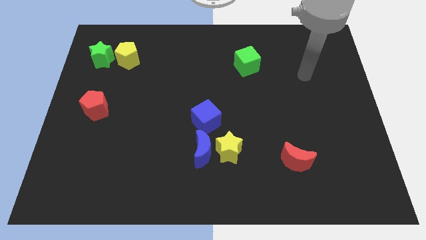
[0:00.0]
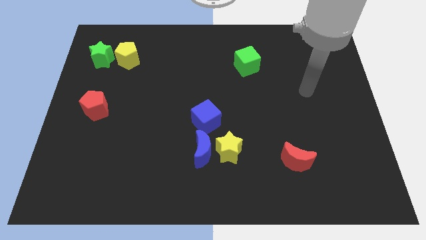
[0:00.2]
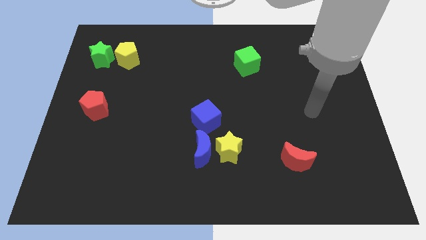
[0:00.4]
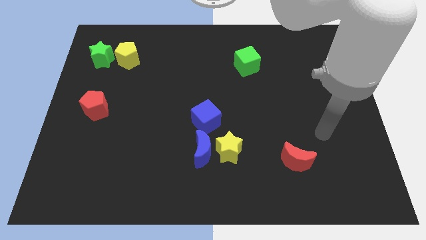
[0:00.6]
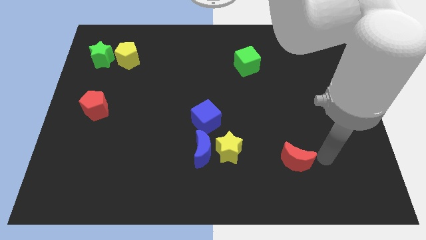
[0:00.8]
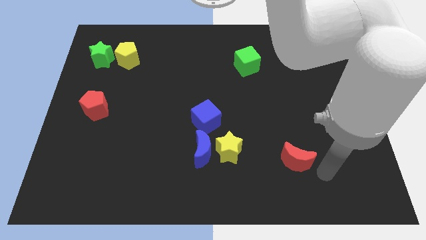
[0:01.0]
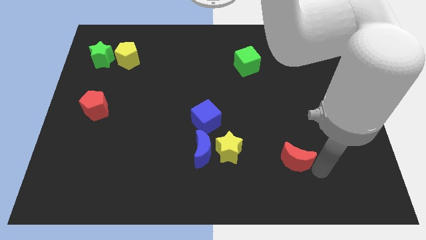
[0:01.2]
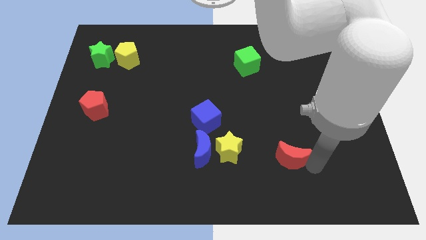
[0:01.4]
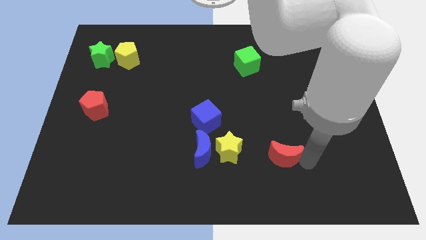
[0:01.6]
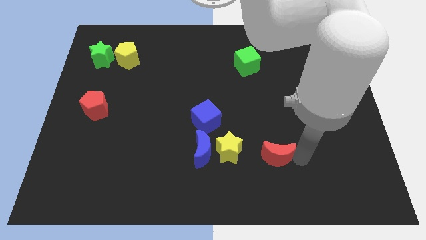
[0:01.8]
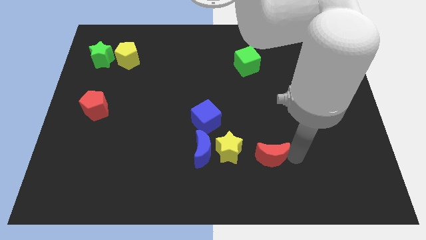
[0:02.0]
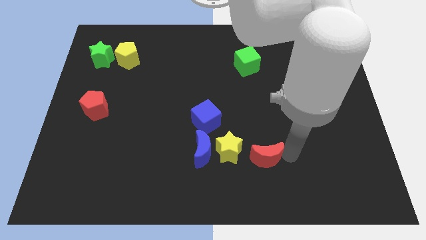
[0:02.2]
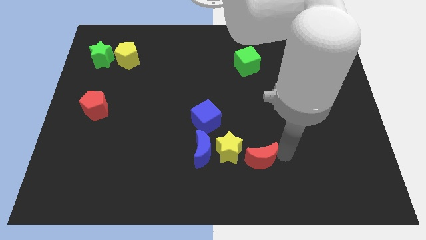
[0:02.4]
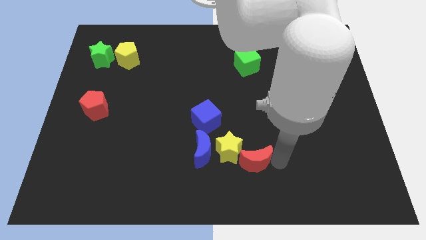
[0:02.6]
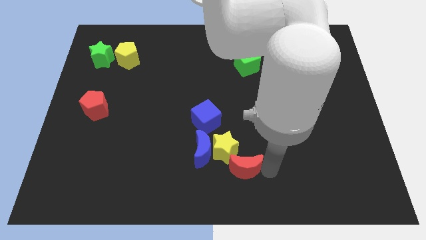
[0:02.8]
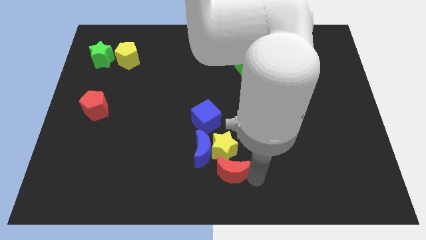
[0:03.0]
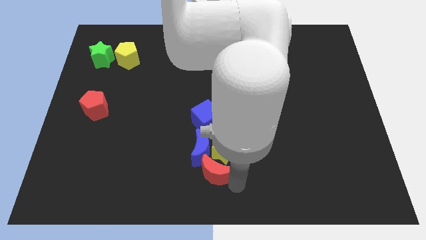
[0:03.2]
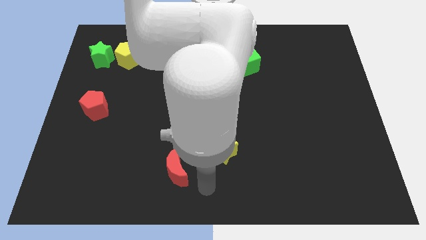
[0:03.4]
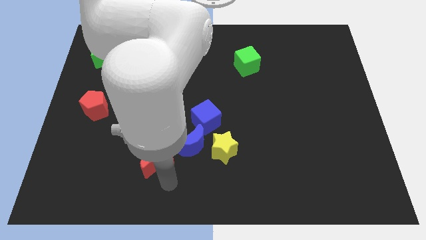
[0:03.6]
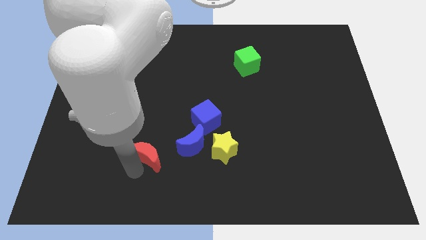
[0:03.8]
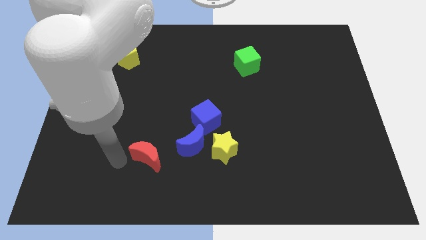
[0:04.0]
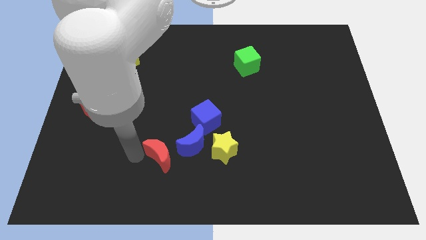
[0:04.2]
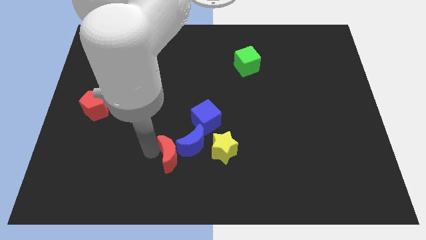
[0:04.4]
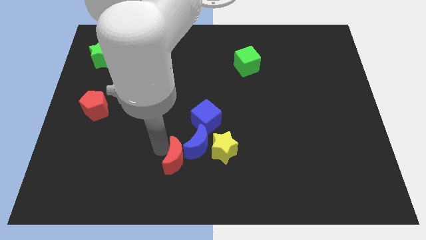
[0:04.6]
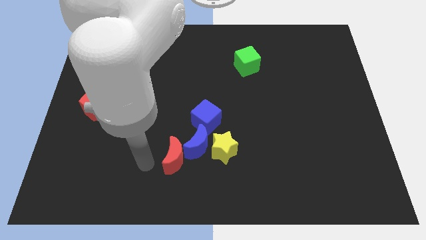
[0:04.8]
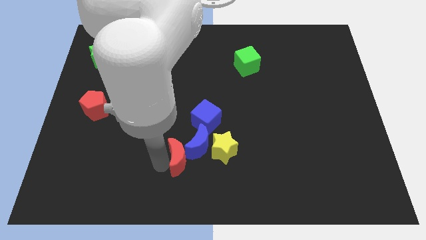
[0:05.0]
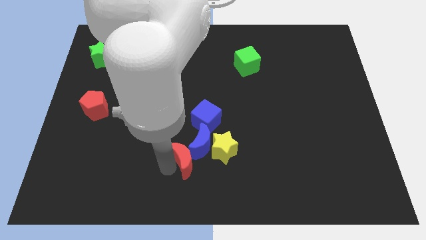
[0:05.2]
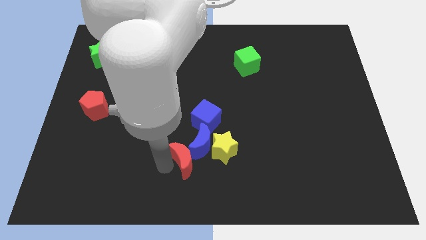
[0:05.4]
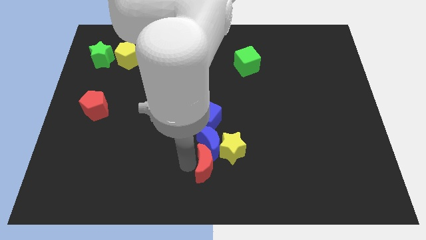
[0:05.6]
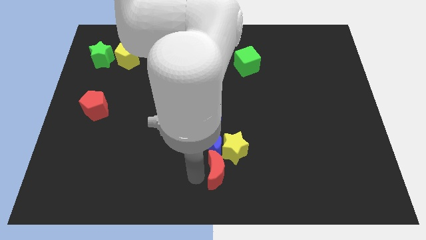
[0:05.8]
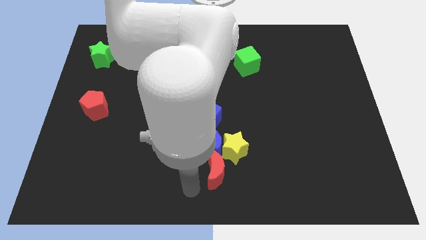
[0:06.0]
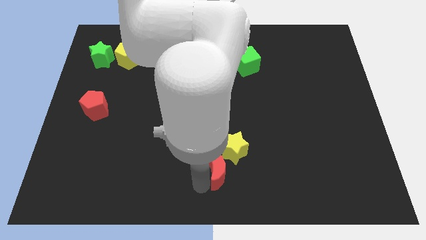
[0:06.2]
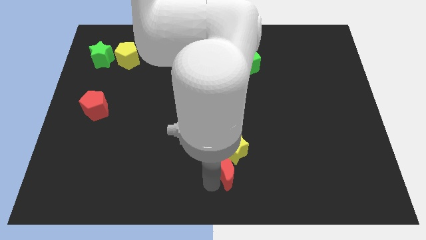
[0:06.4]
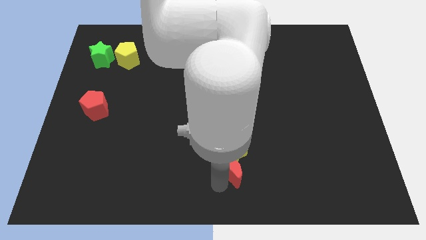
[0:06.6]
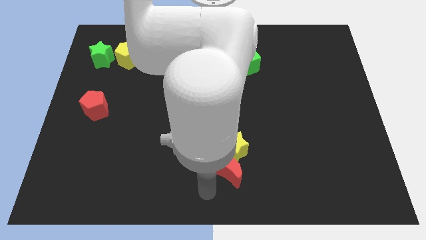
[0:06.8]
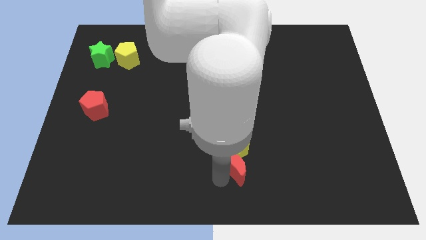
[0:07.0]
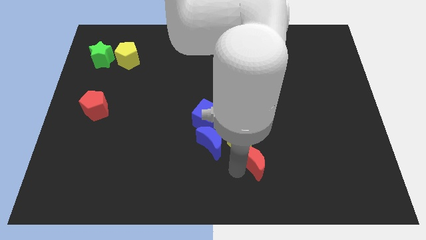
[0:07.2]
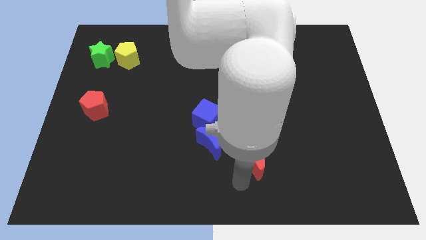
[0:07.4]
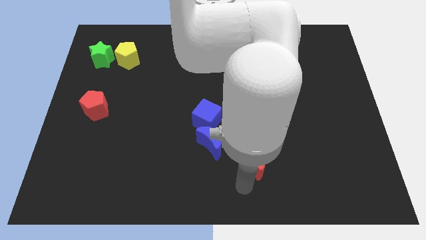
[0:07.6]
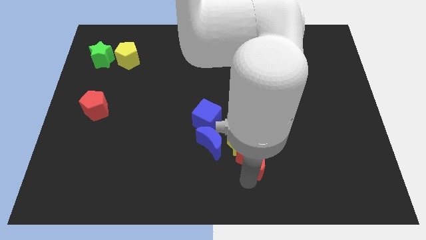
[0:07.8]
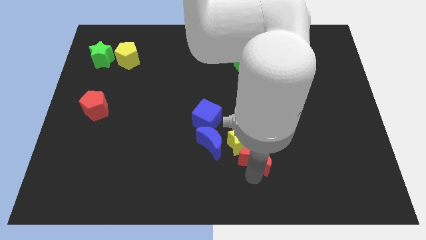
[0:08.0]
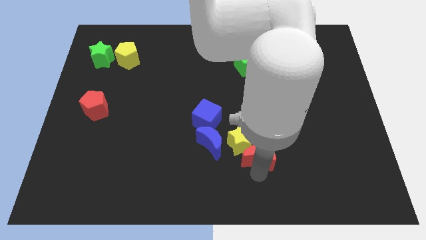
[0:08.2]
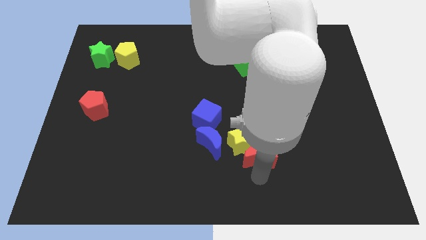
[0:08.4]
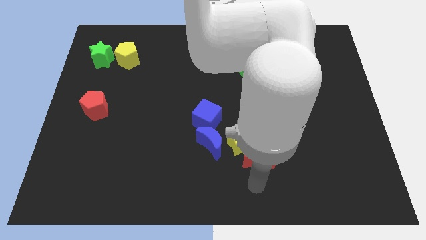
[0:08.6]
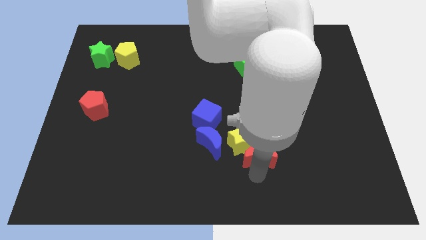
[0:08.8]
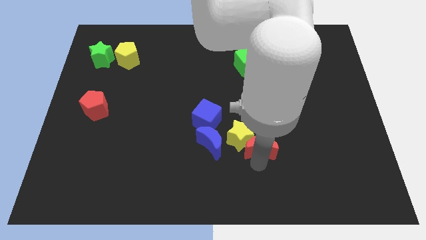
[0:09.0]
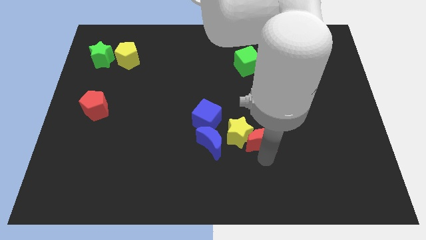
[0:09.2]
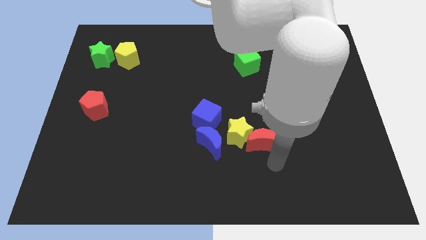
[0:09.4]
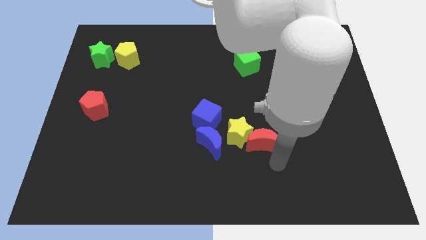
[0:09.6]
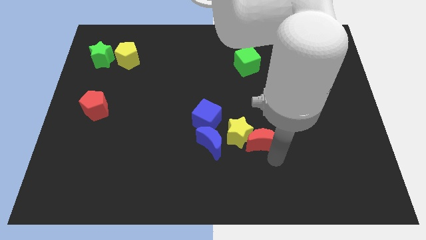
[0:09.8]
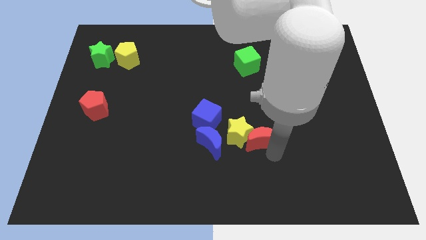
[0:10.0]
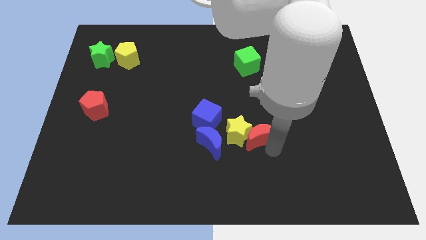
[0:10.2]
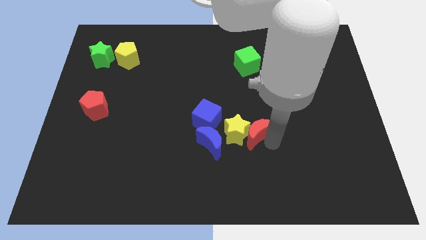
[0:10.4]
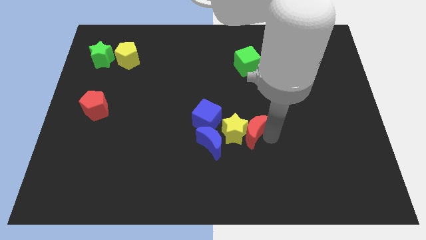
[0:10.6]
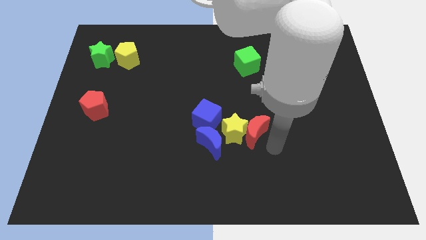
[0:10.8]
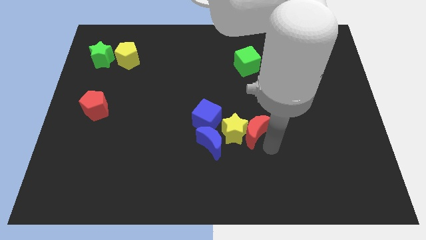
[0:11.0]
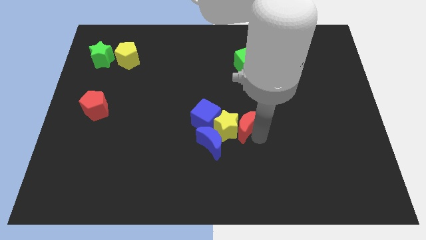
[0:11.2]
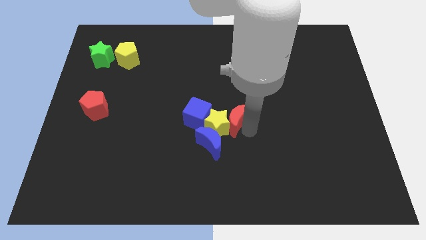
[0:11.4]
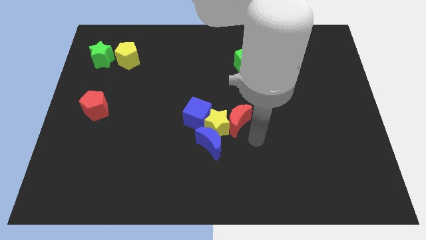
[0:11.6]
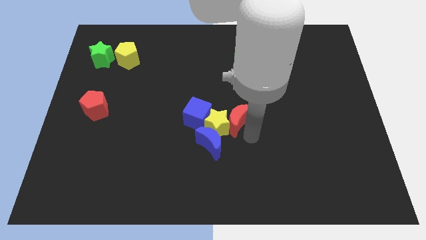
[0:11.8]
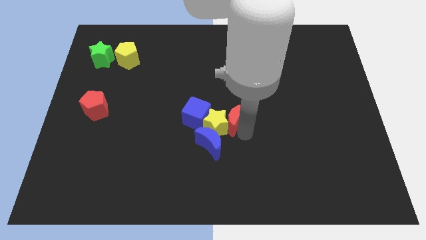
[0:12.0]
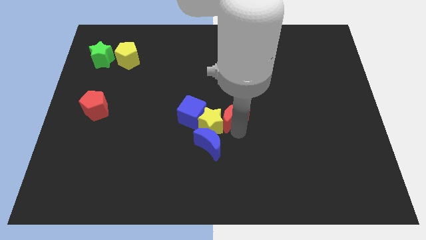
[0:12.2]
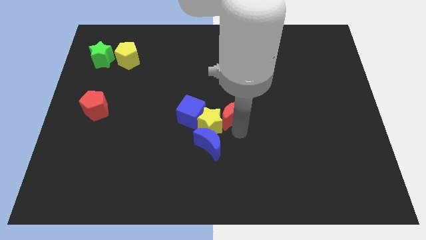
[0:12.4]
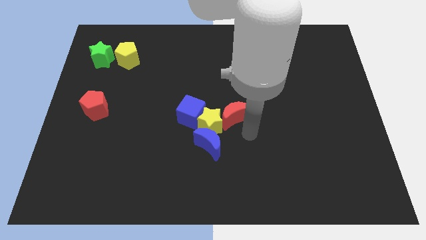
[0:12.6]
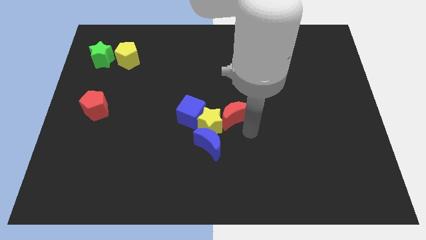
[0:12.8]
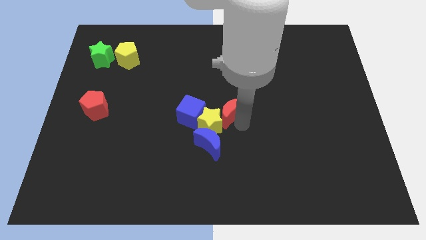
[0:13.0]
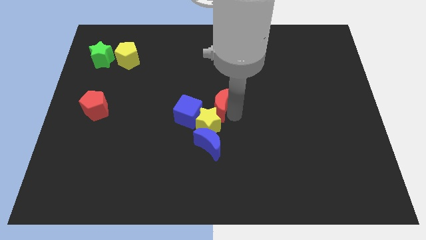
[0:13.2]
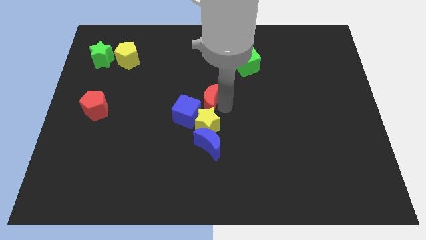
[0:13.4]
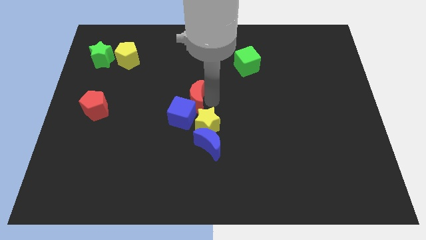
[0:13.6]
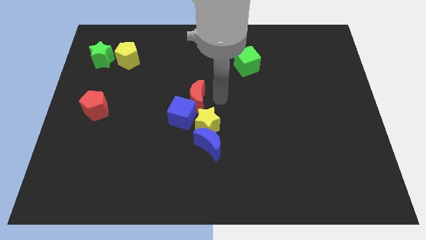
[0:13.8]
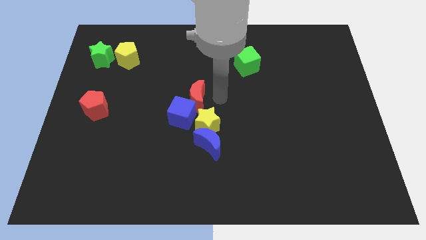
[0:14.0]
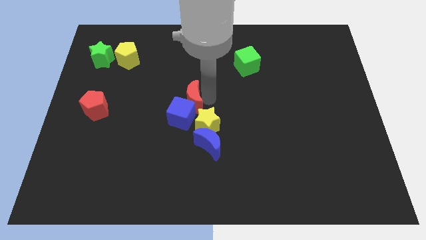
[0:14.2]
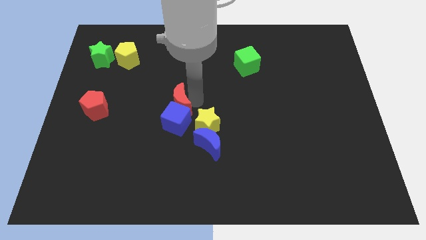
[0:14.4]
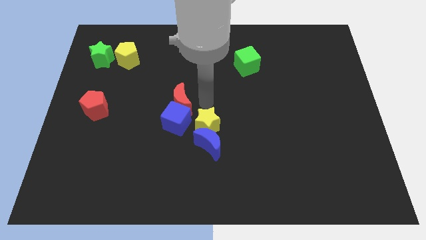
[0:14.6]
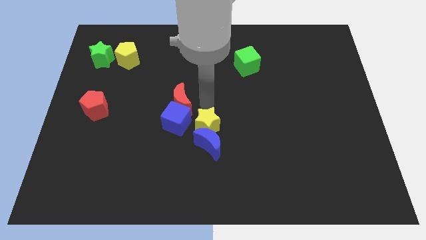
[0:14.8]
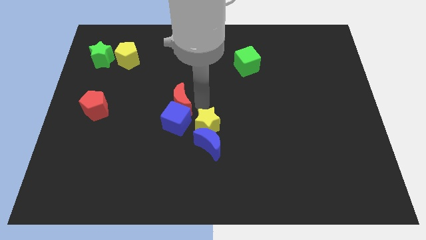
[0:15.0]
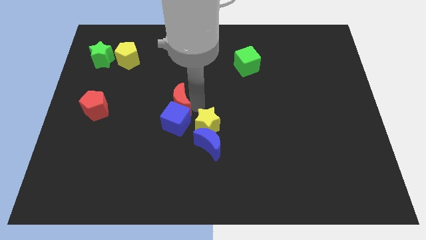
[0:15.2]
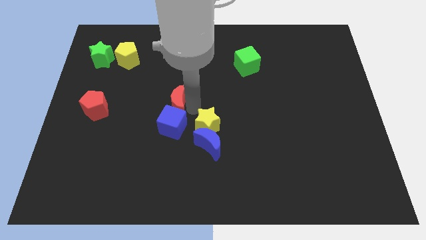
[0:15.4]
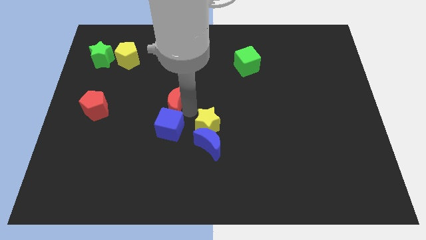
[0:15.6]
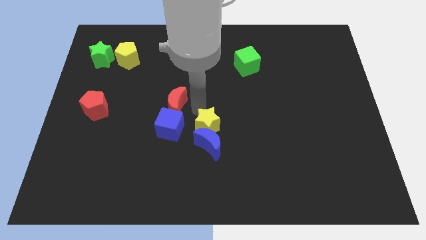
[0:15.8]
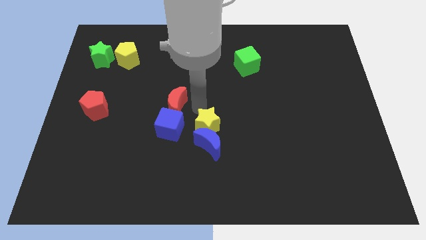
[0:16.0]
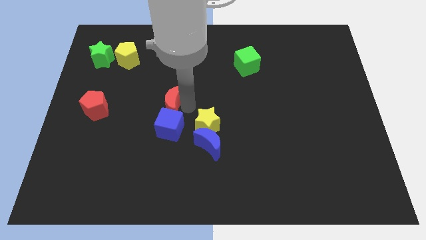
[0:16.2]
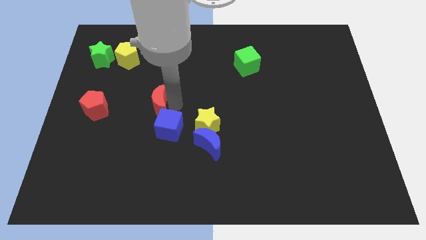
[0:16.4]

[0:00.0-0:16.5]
slide the red moon to the right side of the red pentagon
